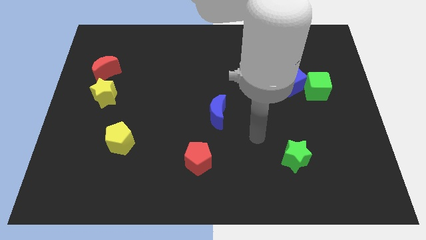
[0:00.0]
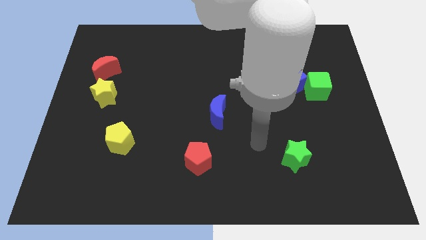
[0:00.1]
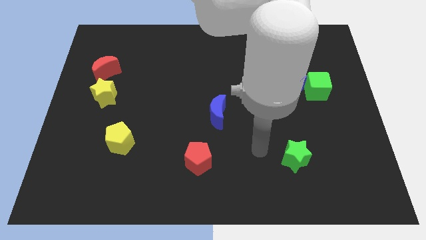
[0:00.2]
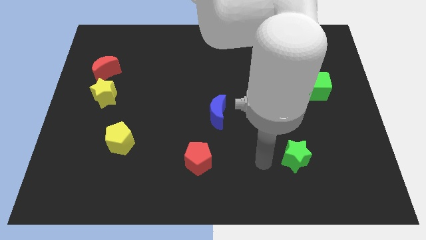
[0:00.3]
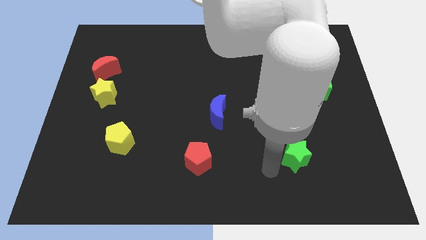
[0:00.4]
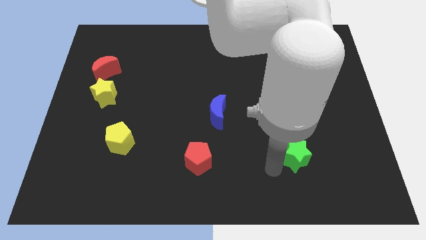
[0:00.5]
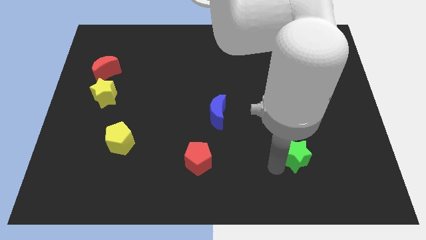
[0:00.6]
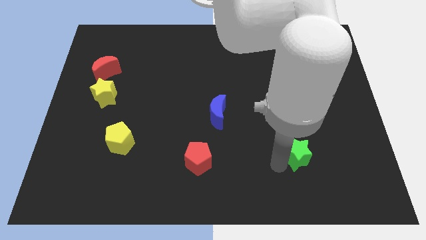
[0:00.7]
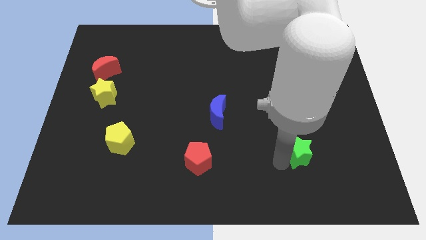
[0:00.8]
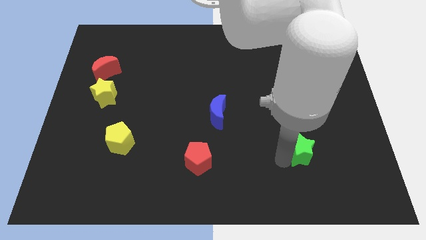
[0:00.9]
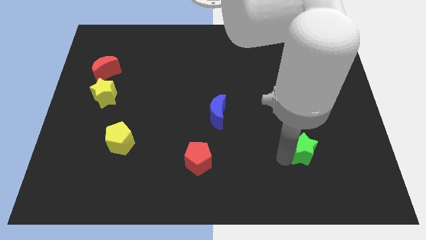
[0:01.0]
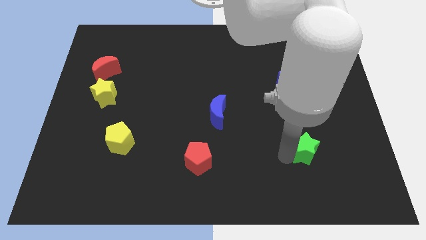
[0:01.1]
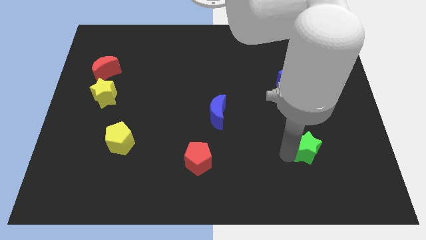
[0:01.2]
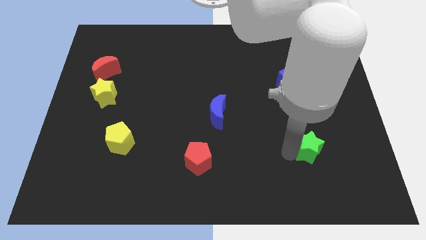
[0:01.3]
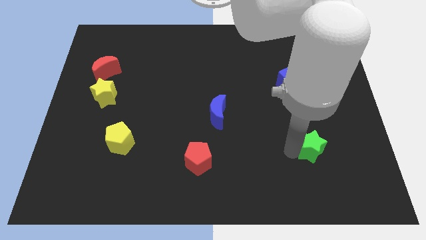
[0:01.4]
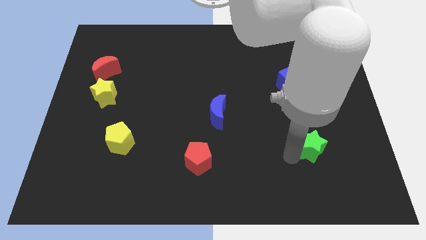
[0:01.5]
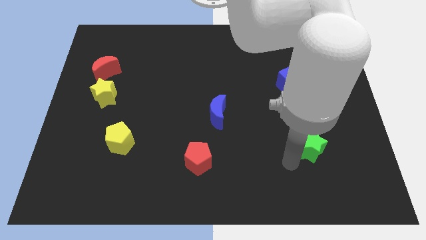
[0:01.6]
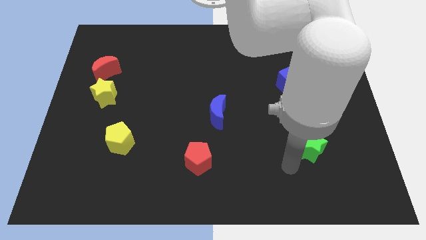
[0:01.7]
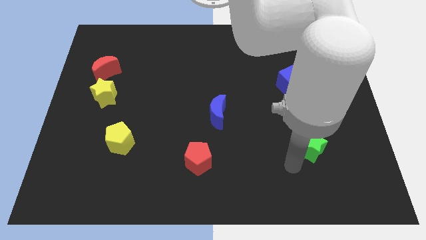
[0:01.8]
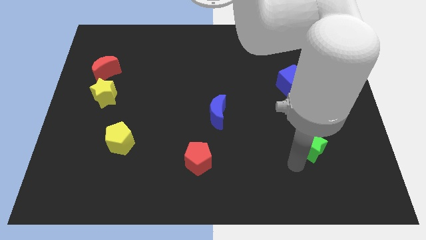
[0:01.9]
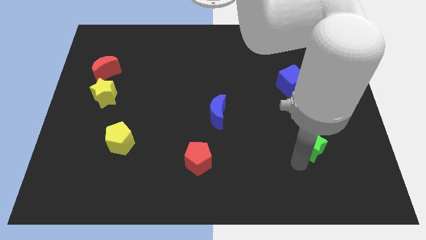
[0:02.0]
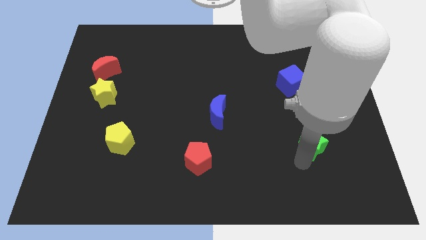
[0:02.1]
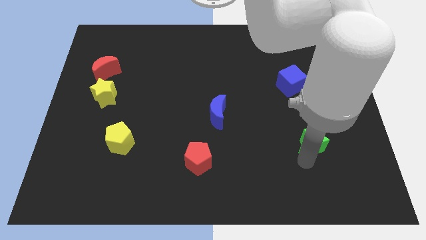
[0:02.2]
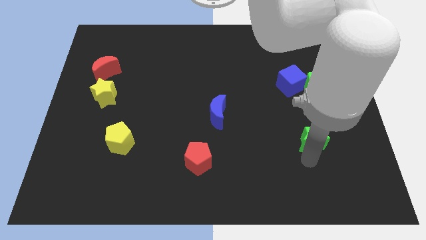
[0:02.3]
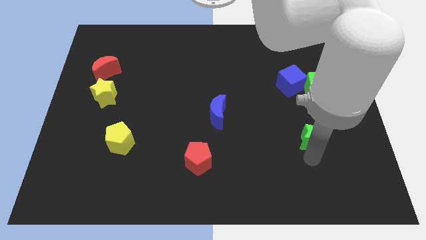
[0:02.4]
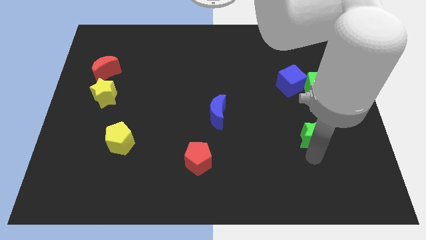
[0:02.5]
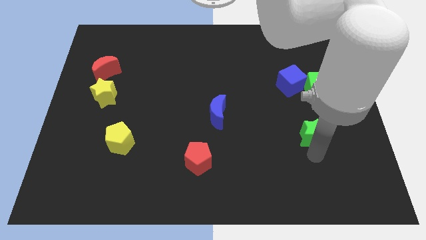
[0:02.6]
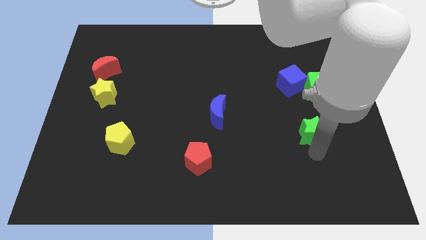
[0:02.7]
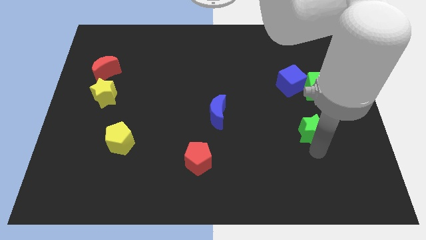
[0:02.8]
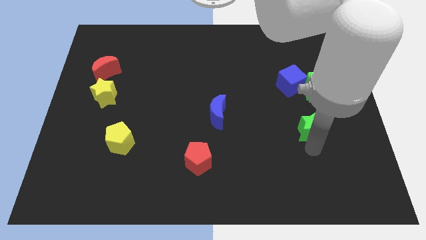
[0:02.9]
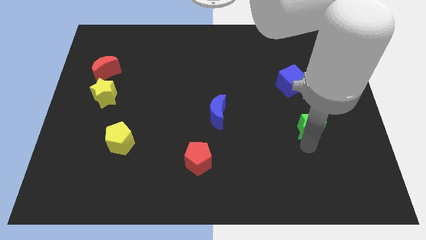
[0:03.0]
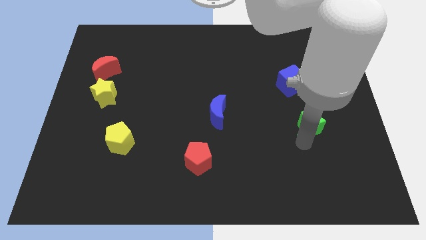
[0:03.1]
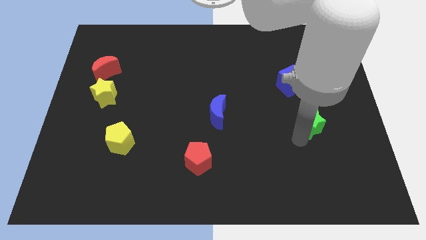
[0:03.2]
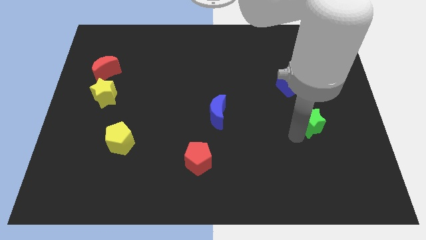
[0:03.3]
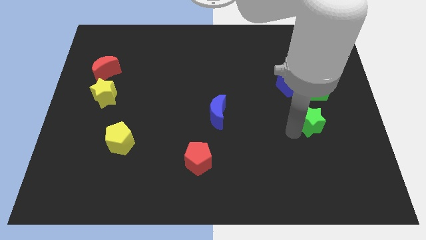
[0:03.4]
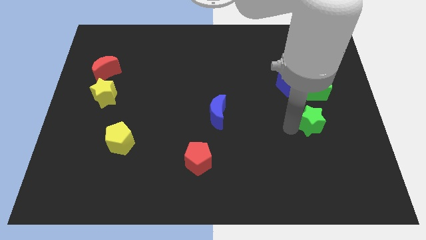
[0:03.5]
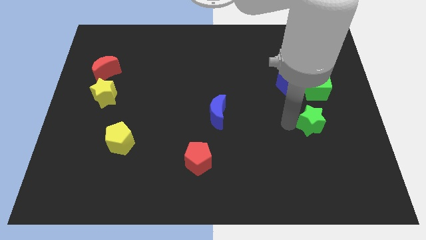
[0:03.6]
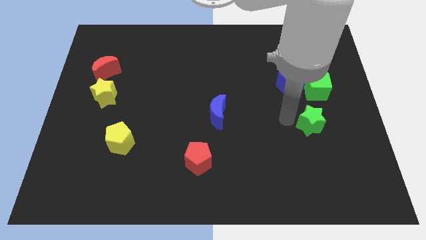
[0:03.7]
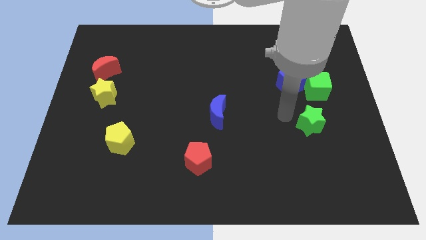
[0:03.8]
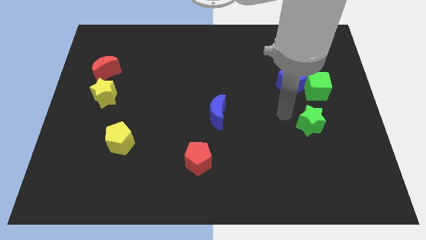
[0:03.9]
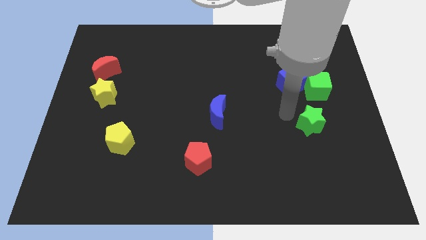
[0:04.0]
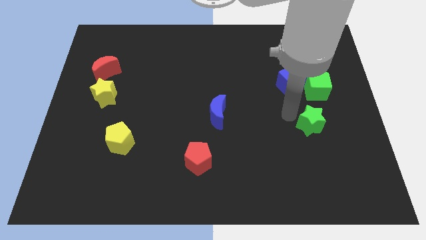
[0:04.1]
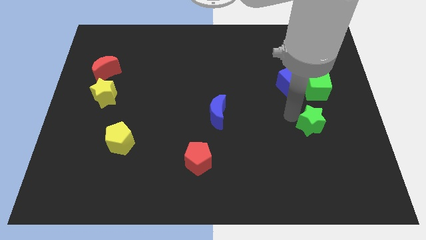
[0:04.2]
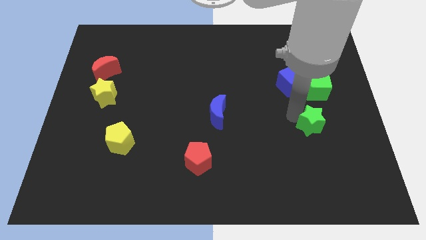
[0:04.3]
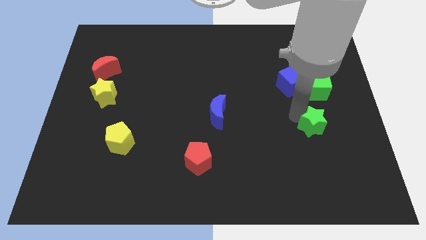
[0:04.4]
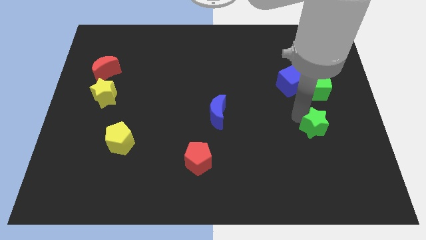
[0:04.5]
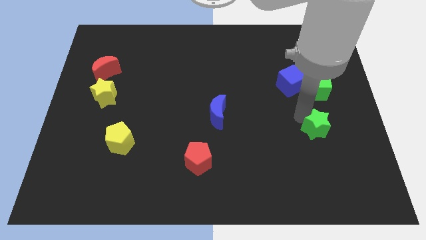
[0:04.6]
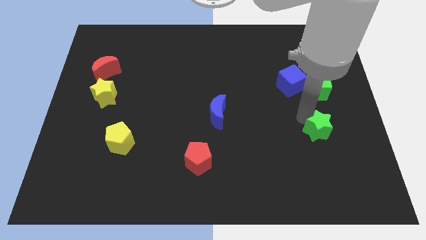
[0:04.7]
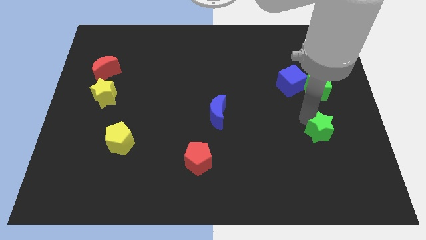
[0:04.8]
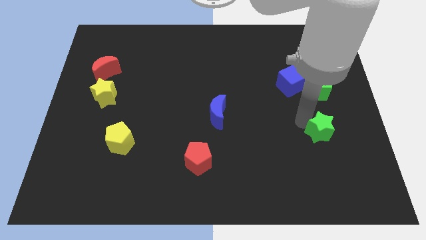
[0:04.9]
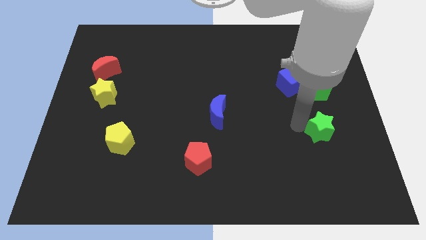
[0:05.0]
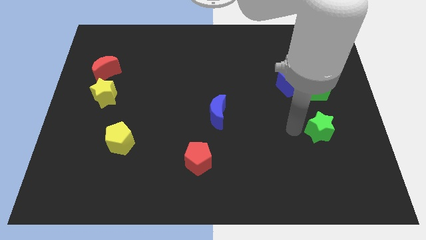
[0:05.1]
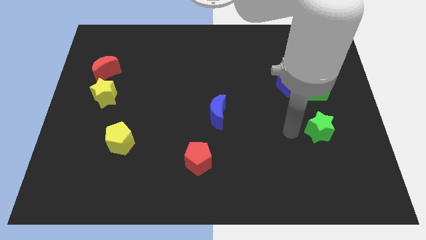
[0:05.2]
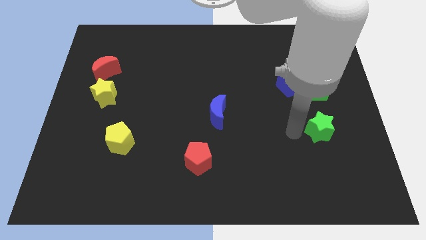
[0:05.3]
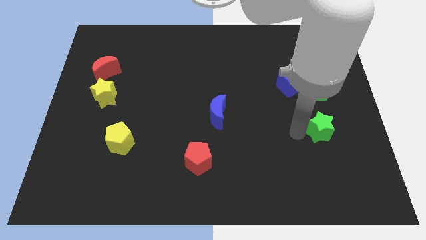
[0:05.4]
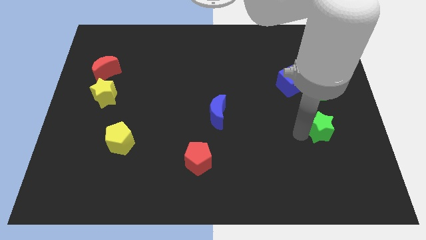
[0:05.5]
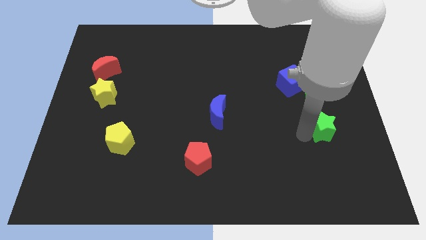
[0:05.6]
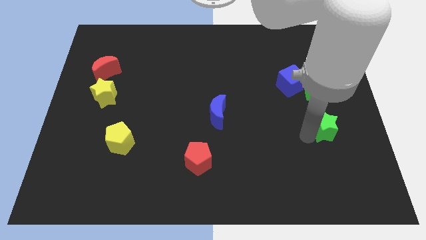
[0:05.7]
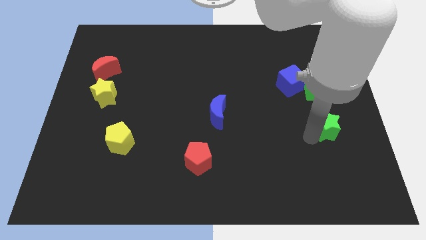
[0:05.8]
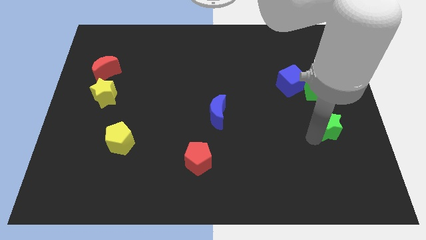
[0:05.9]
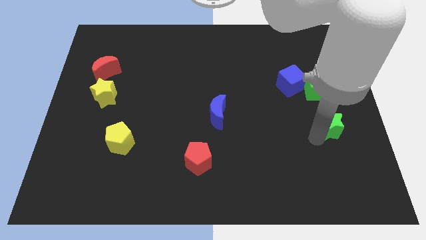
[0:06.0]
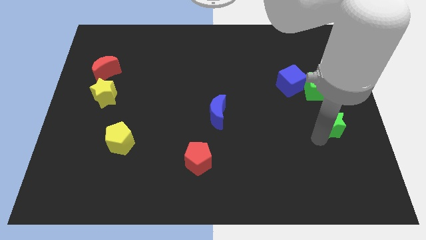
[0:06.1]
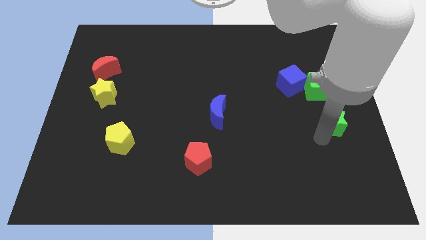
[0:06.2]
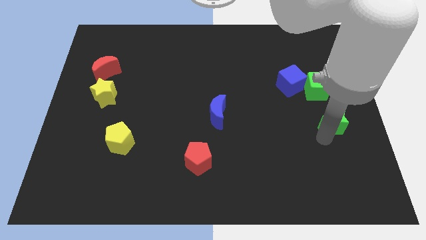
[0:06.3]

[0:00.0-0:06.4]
put the green star to the right side of the board
